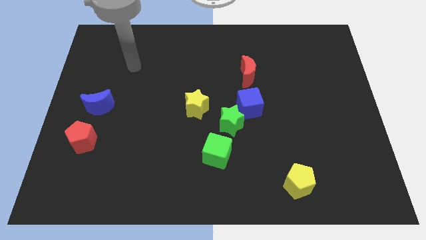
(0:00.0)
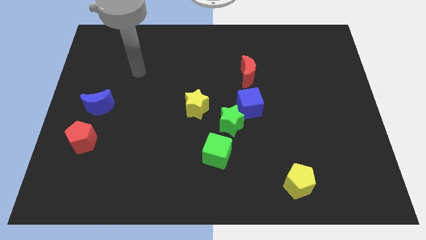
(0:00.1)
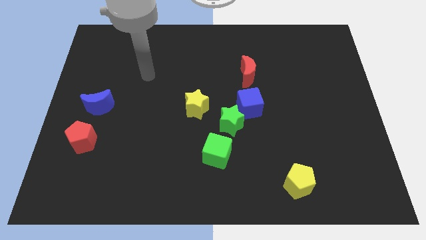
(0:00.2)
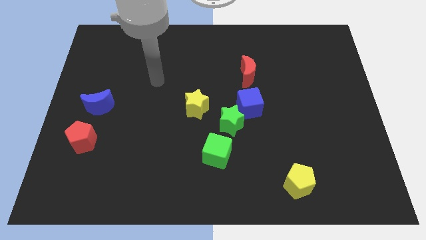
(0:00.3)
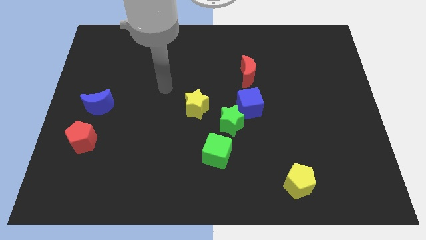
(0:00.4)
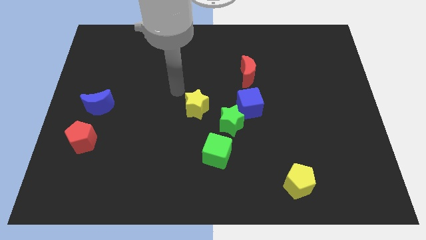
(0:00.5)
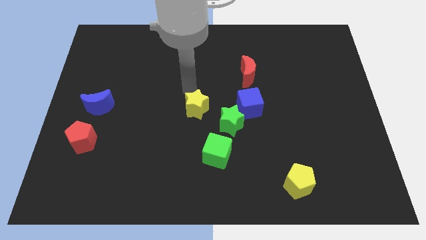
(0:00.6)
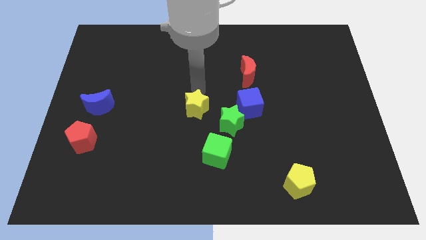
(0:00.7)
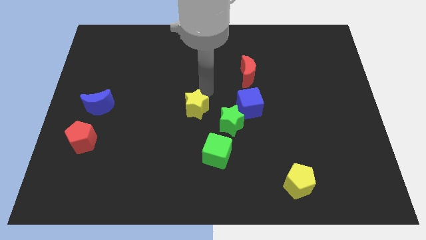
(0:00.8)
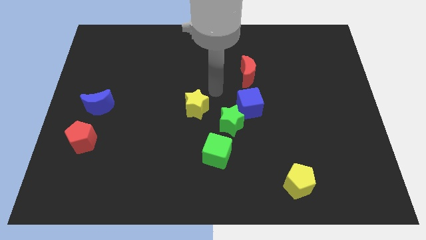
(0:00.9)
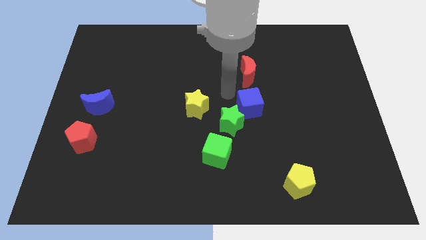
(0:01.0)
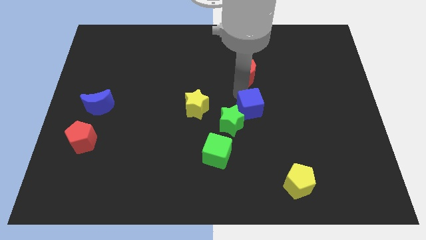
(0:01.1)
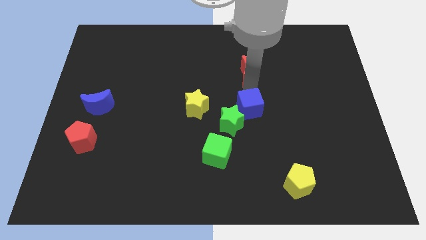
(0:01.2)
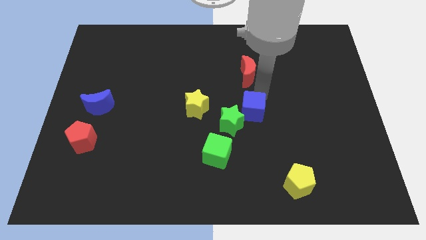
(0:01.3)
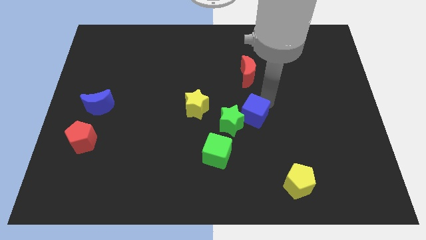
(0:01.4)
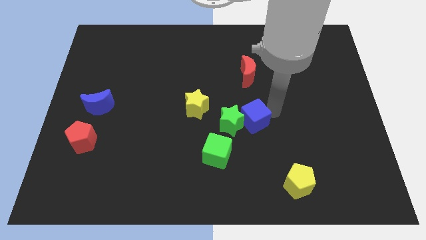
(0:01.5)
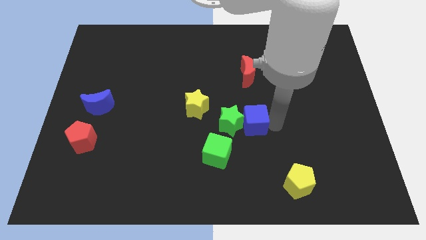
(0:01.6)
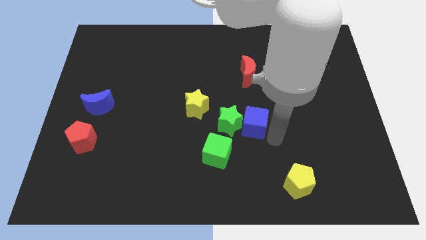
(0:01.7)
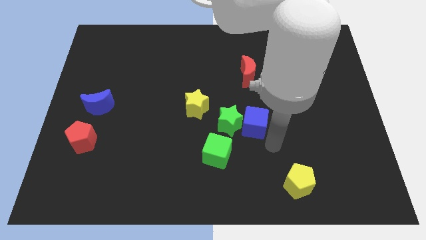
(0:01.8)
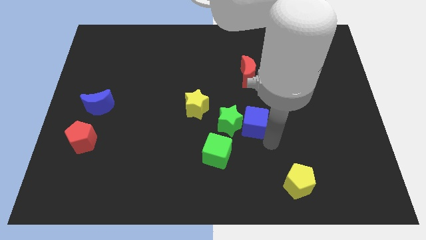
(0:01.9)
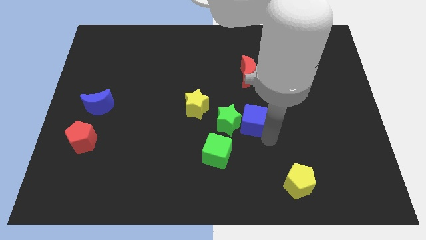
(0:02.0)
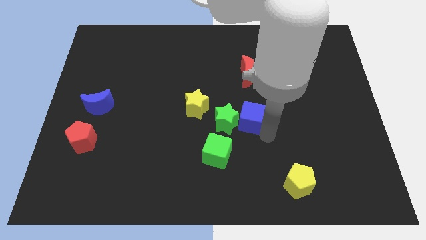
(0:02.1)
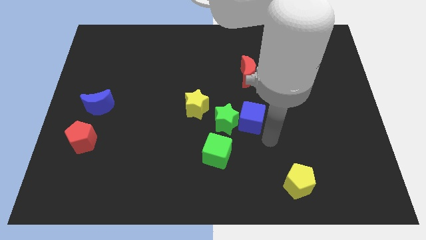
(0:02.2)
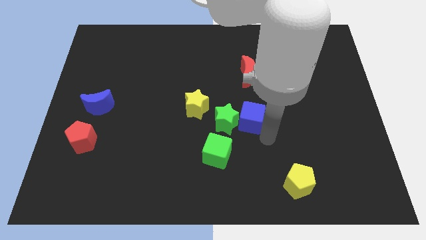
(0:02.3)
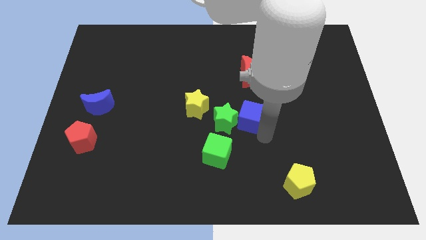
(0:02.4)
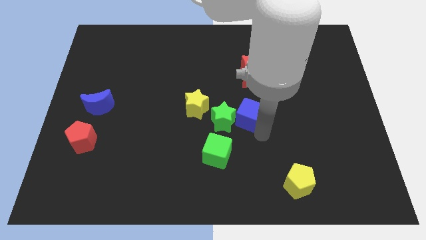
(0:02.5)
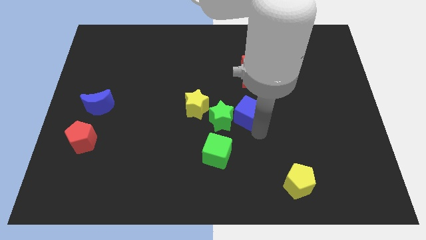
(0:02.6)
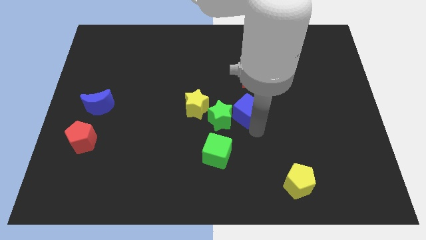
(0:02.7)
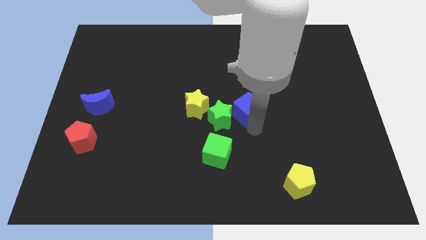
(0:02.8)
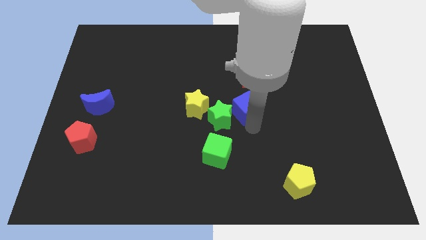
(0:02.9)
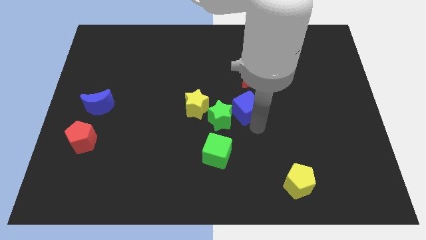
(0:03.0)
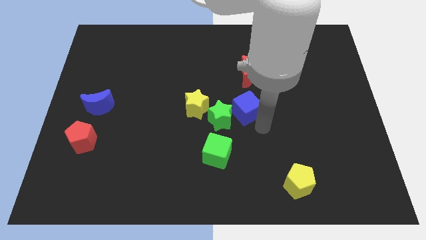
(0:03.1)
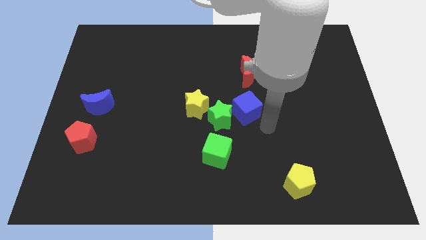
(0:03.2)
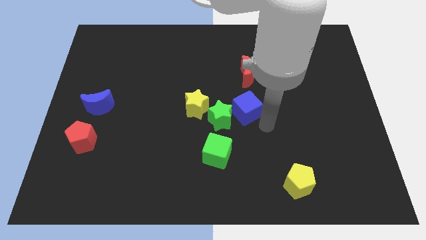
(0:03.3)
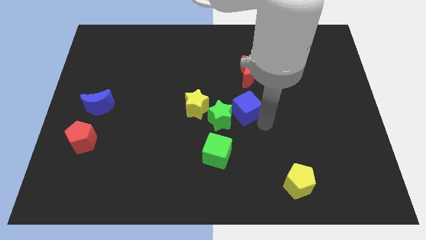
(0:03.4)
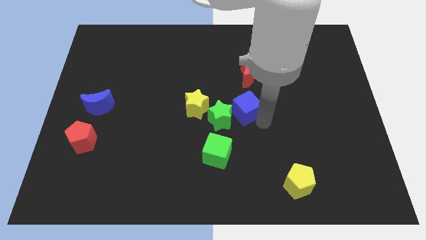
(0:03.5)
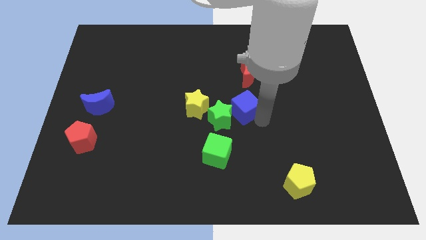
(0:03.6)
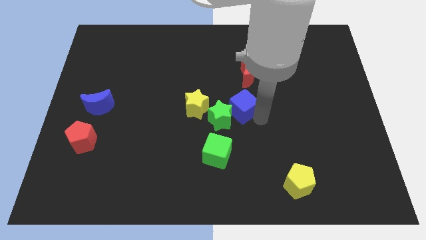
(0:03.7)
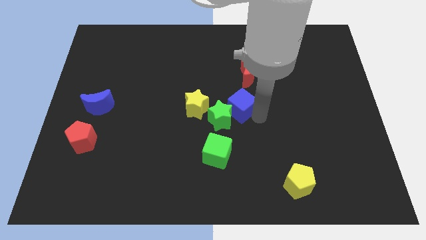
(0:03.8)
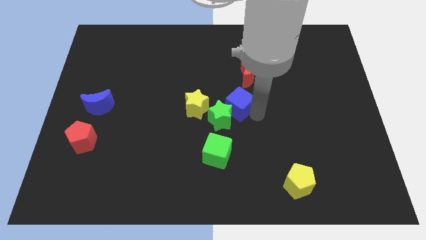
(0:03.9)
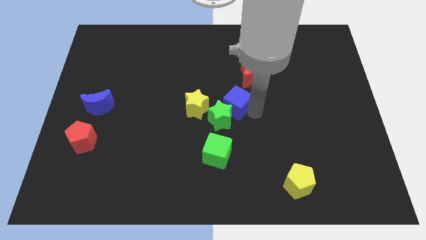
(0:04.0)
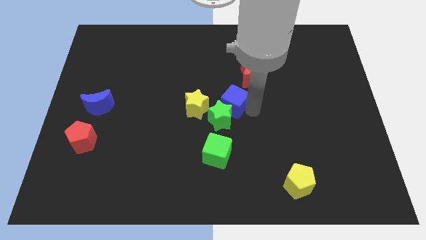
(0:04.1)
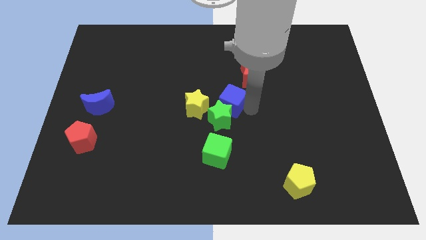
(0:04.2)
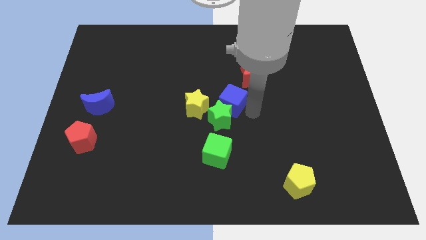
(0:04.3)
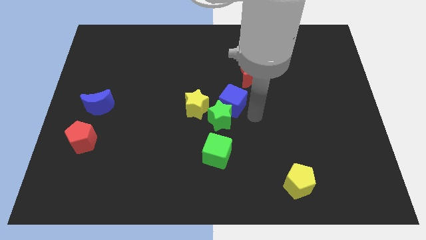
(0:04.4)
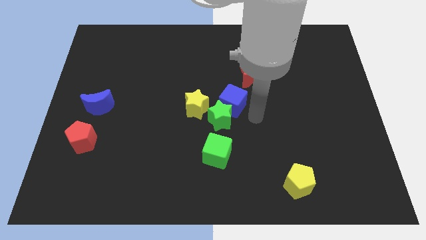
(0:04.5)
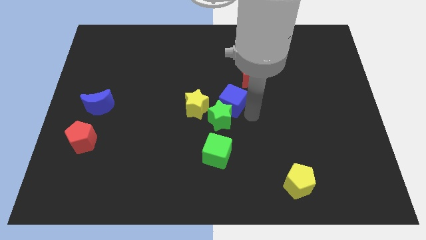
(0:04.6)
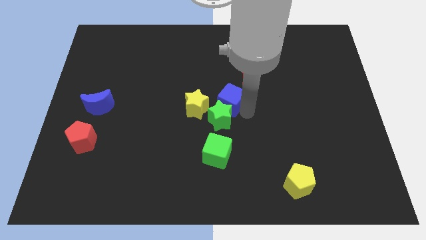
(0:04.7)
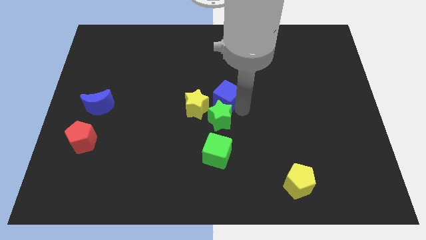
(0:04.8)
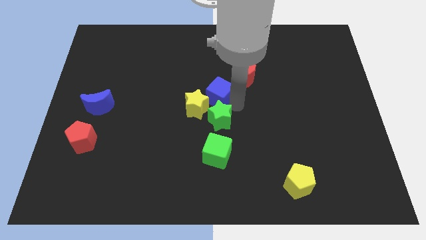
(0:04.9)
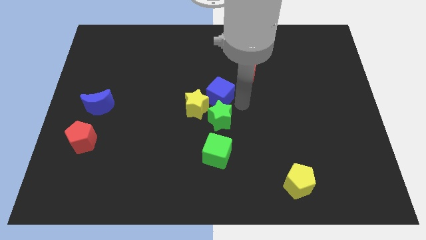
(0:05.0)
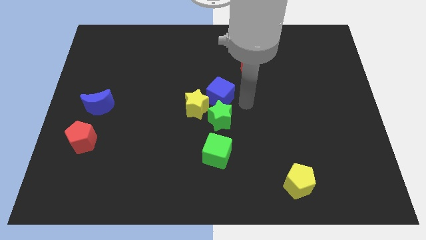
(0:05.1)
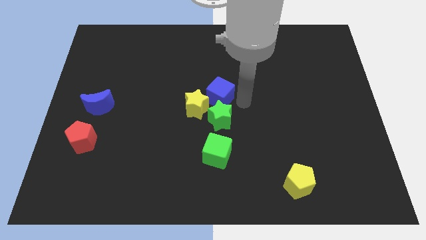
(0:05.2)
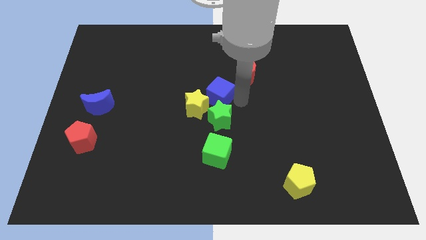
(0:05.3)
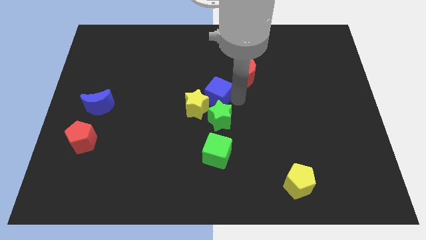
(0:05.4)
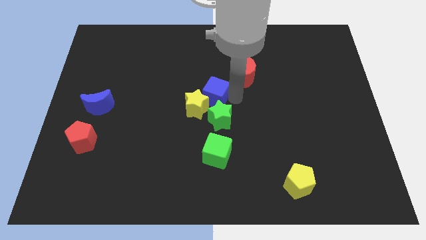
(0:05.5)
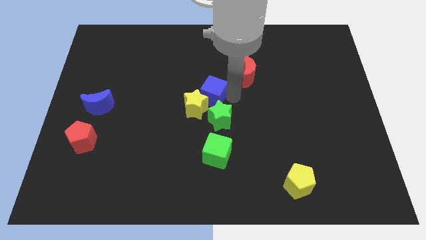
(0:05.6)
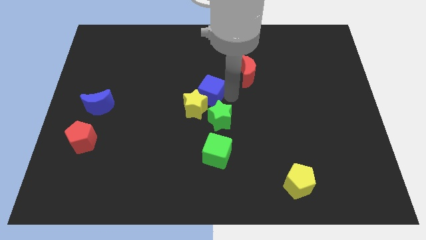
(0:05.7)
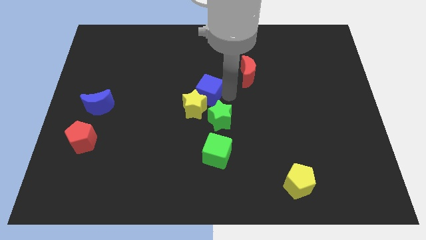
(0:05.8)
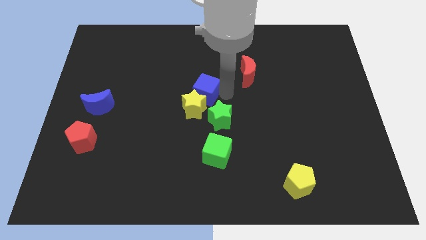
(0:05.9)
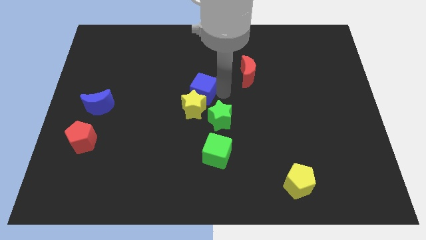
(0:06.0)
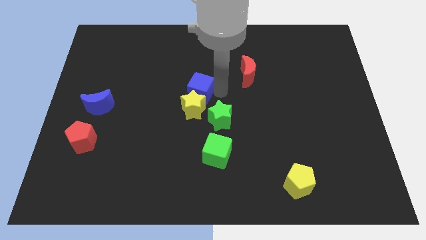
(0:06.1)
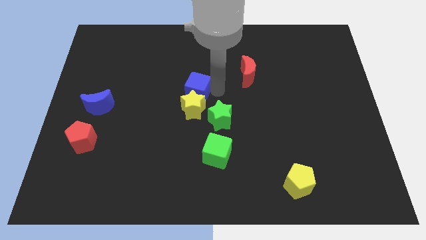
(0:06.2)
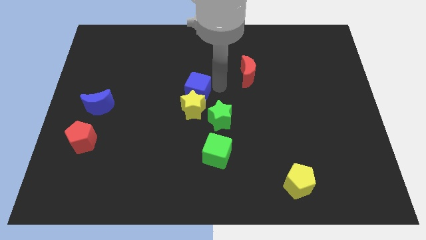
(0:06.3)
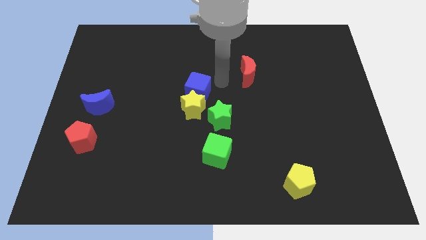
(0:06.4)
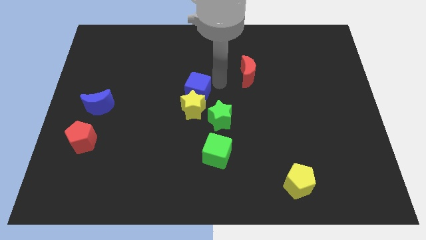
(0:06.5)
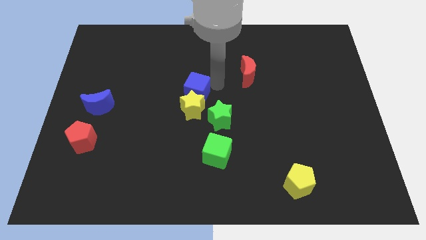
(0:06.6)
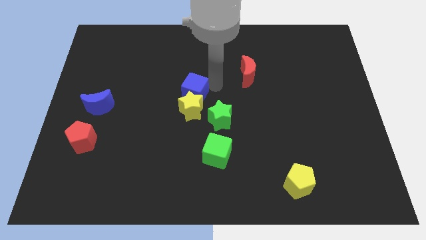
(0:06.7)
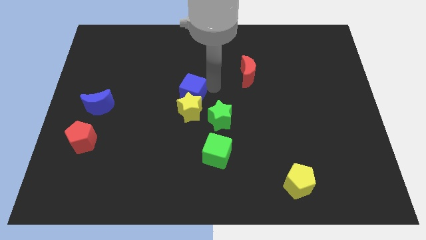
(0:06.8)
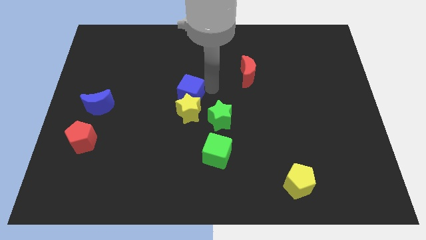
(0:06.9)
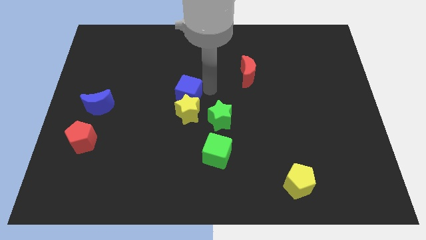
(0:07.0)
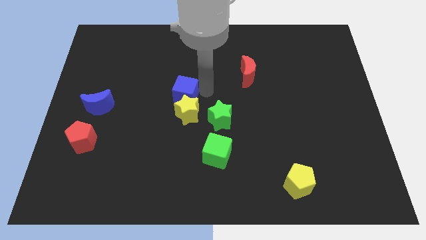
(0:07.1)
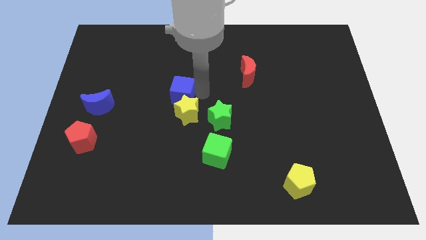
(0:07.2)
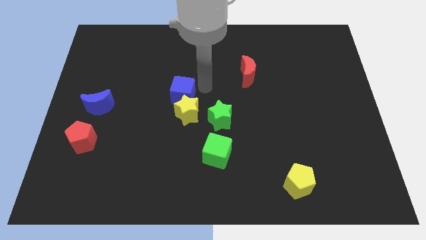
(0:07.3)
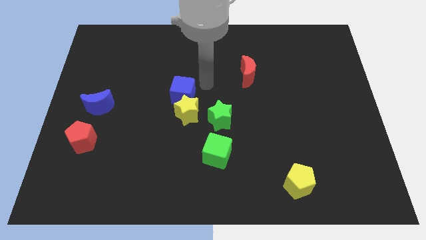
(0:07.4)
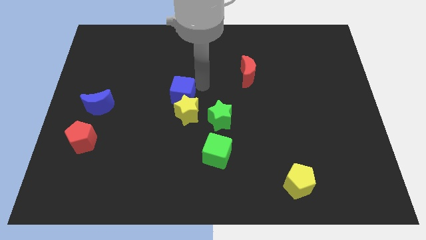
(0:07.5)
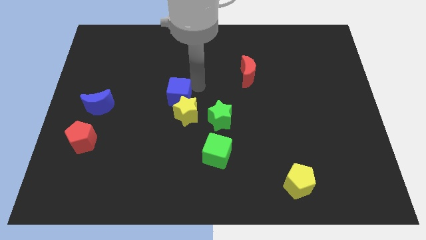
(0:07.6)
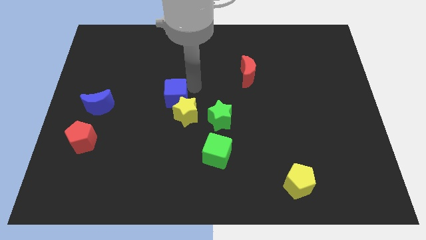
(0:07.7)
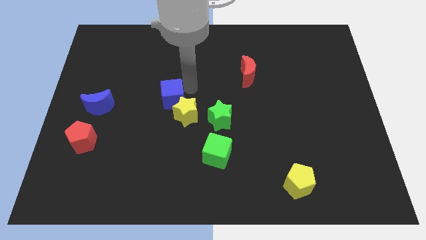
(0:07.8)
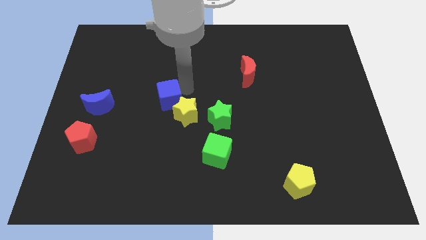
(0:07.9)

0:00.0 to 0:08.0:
slide the blue cube to the left of the yellow star
